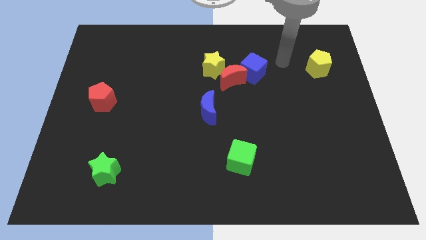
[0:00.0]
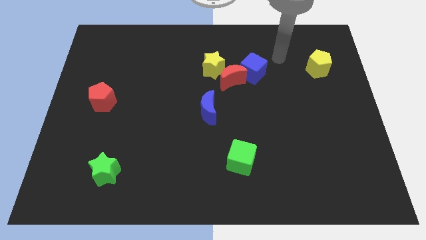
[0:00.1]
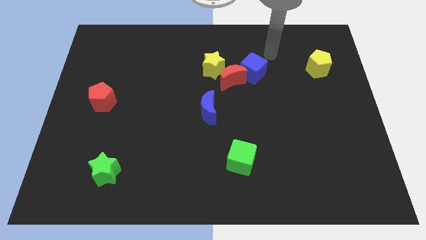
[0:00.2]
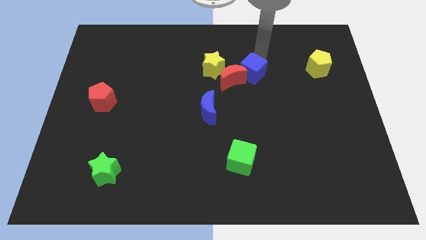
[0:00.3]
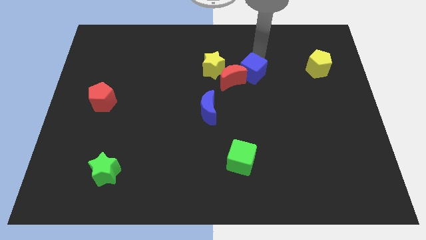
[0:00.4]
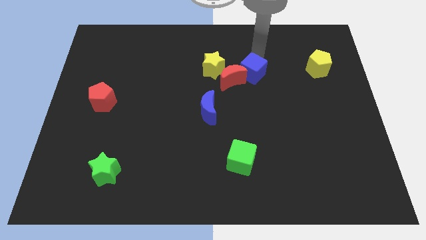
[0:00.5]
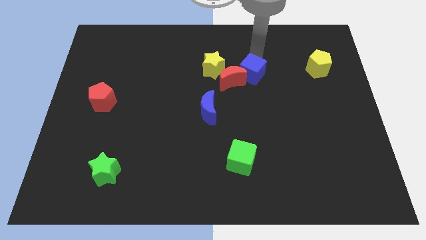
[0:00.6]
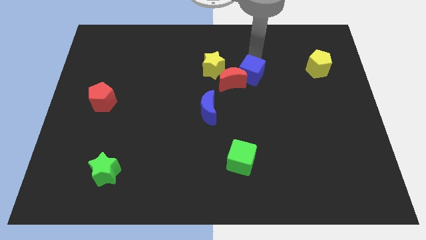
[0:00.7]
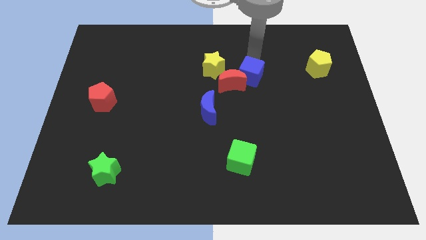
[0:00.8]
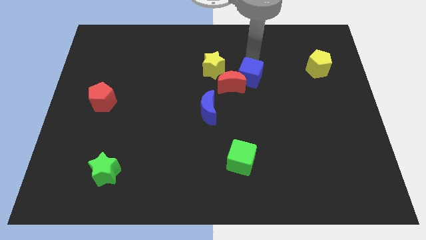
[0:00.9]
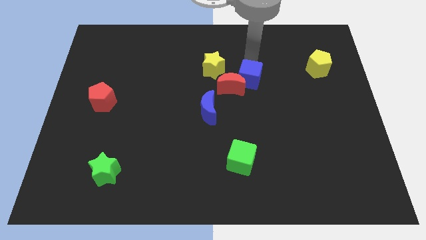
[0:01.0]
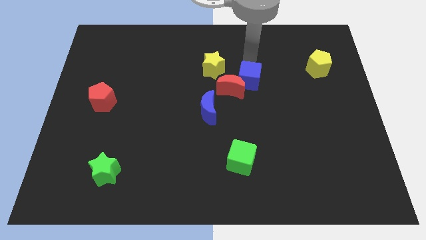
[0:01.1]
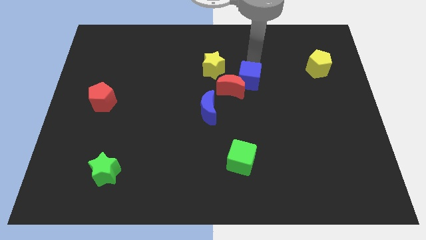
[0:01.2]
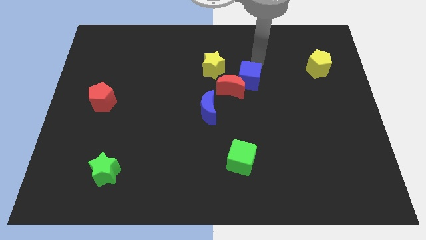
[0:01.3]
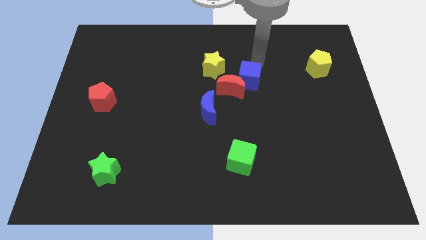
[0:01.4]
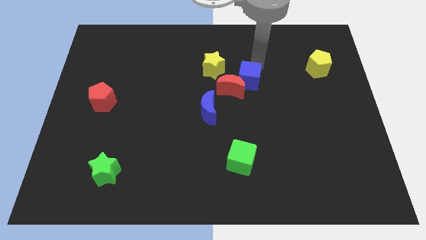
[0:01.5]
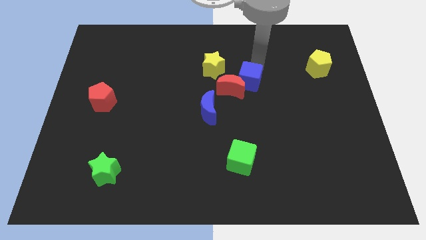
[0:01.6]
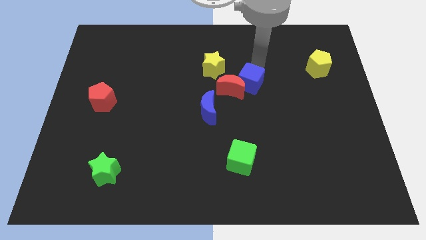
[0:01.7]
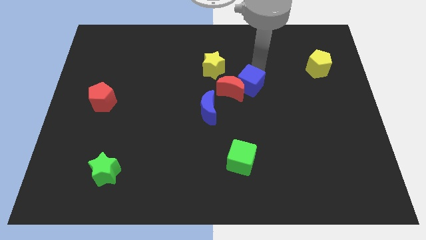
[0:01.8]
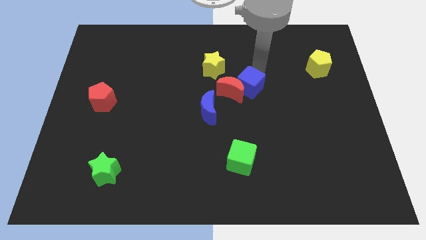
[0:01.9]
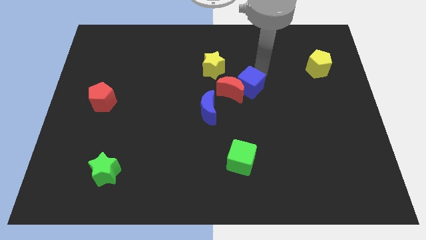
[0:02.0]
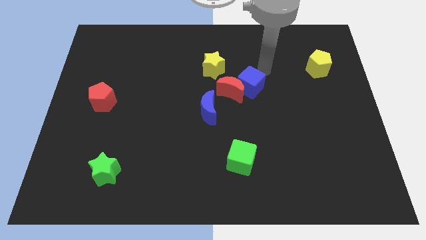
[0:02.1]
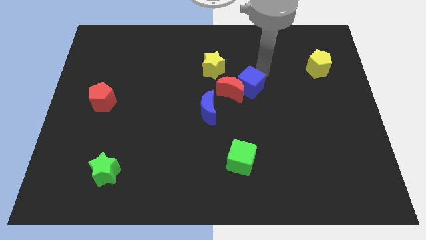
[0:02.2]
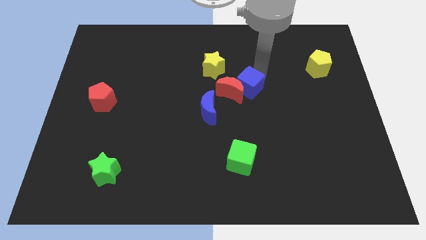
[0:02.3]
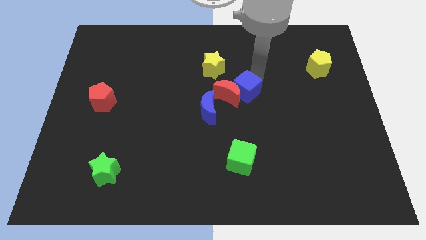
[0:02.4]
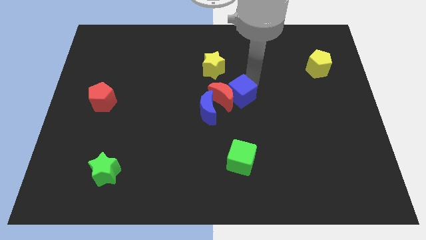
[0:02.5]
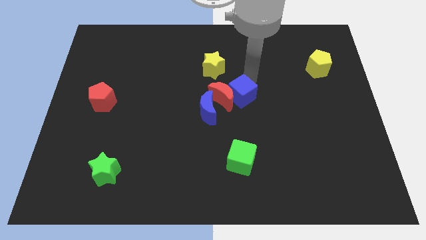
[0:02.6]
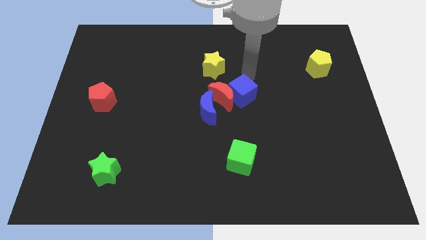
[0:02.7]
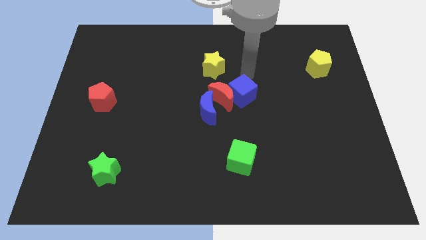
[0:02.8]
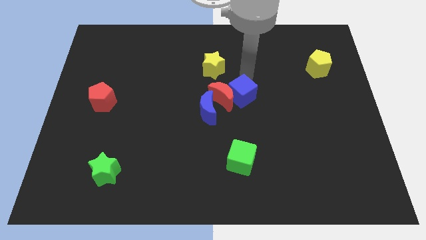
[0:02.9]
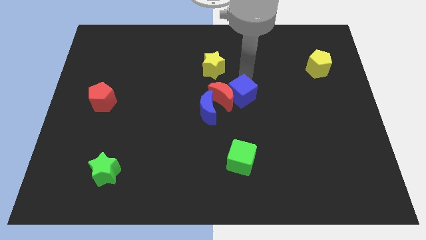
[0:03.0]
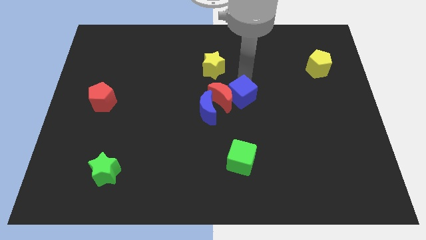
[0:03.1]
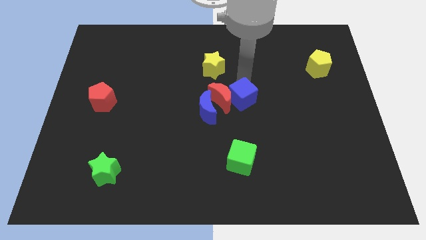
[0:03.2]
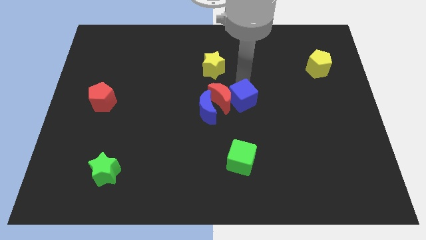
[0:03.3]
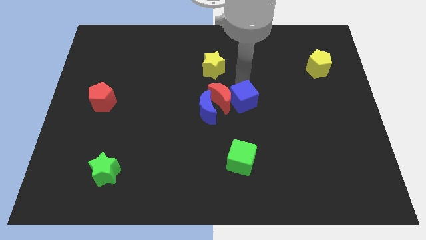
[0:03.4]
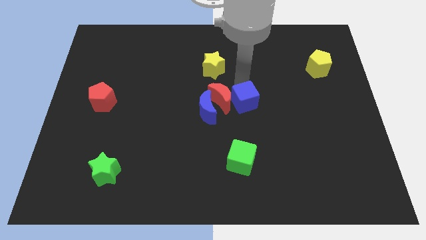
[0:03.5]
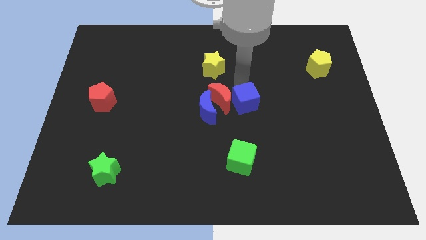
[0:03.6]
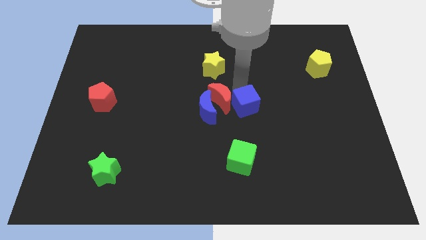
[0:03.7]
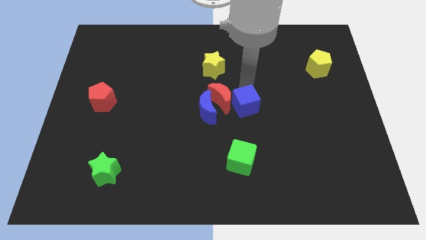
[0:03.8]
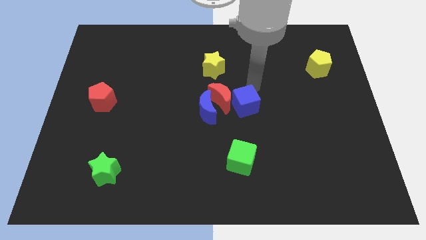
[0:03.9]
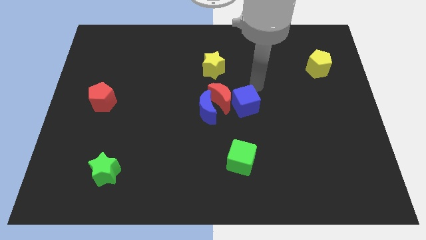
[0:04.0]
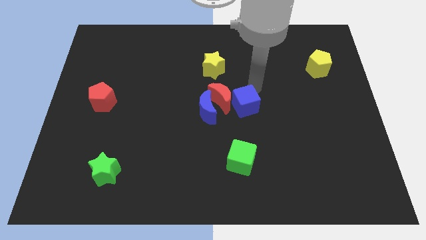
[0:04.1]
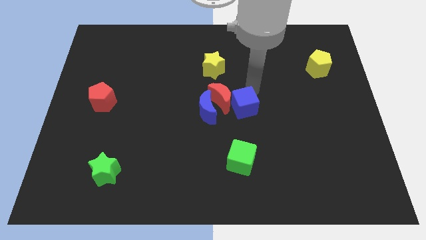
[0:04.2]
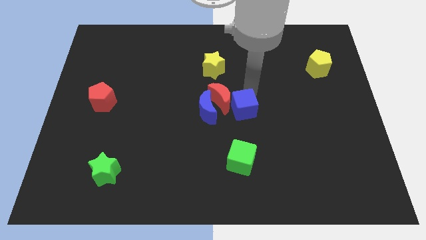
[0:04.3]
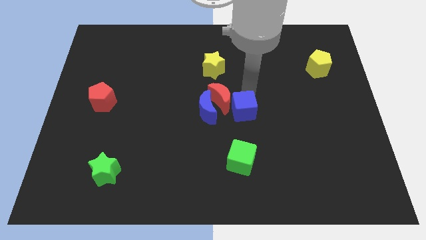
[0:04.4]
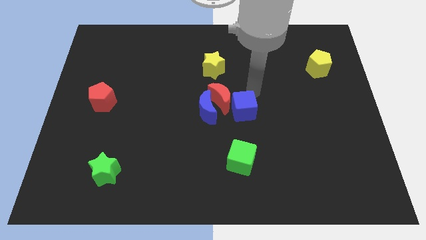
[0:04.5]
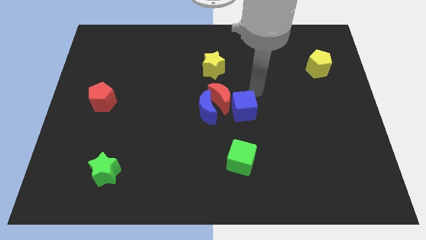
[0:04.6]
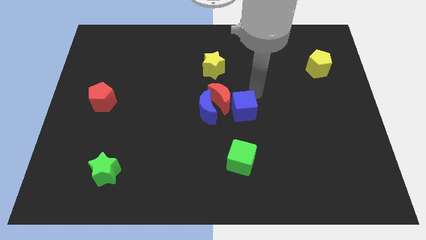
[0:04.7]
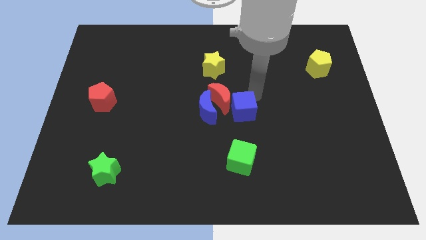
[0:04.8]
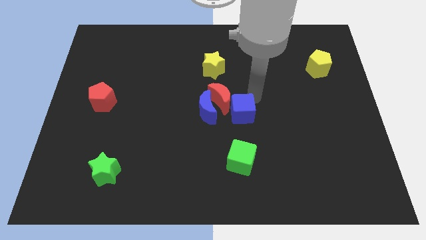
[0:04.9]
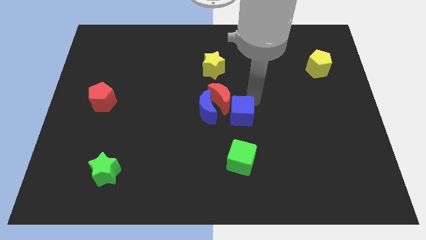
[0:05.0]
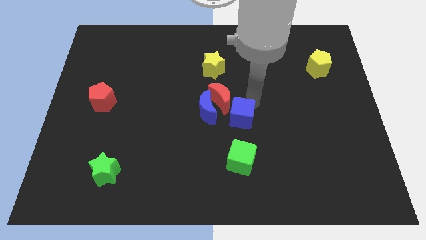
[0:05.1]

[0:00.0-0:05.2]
put the blue cube to the bottom right of the blue moon

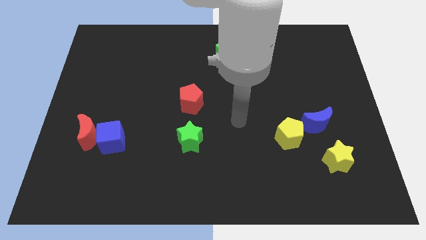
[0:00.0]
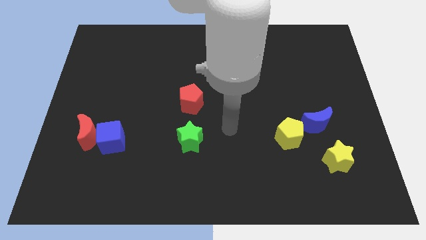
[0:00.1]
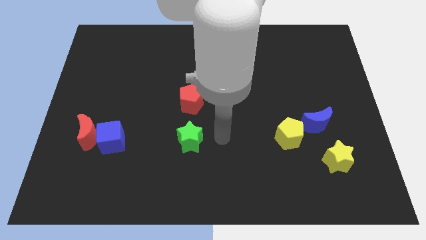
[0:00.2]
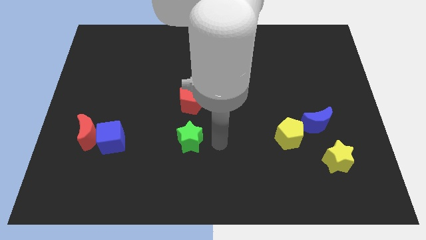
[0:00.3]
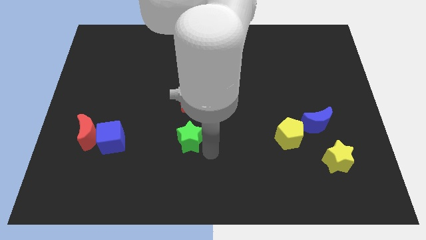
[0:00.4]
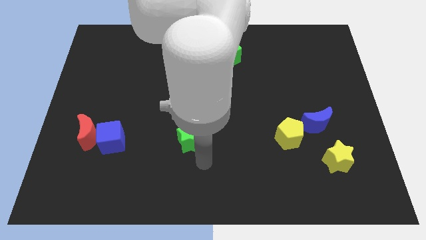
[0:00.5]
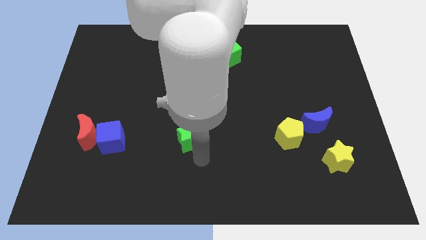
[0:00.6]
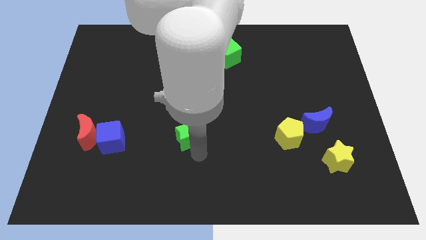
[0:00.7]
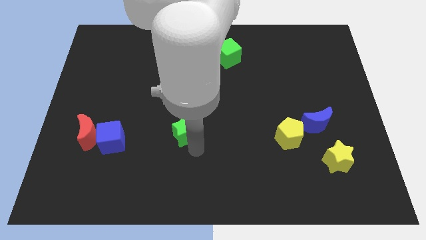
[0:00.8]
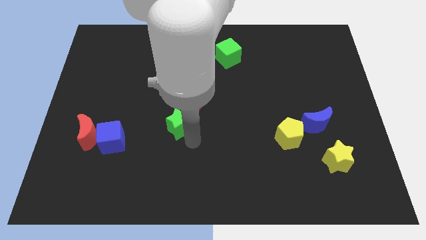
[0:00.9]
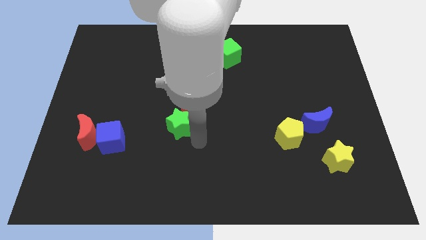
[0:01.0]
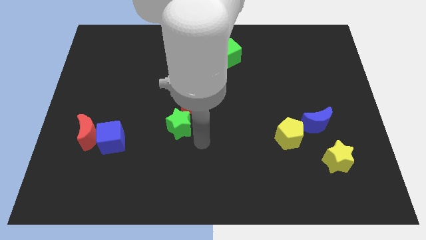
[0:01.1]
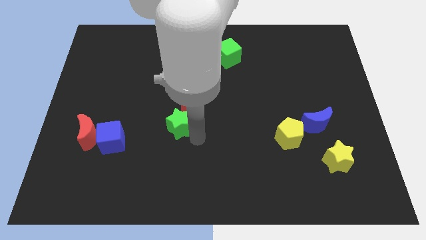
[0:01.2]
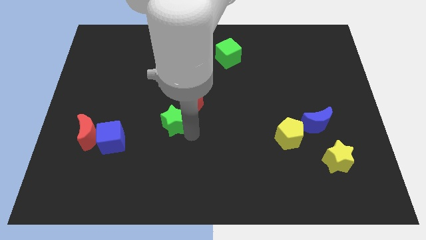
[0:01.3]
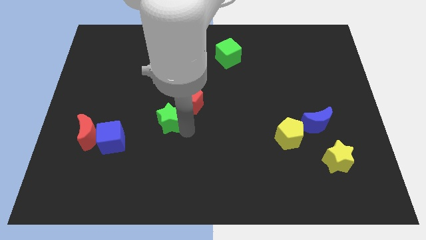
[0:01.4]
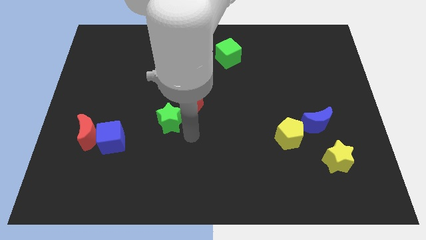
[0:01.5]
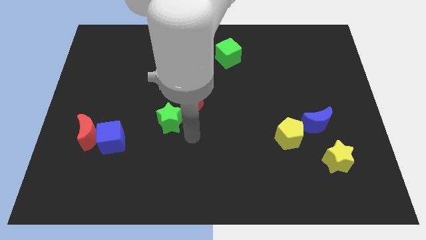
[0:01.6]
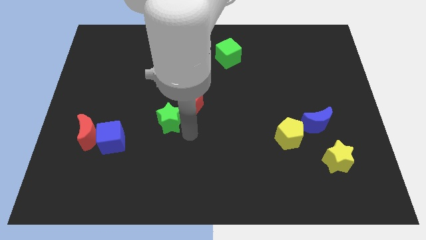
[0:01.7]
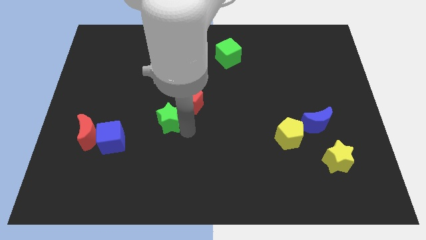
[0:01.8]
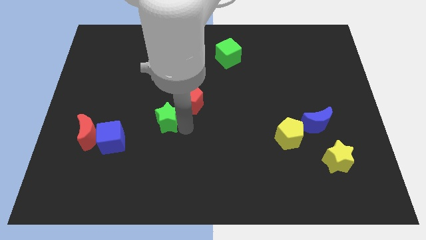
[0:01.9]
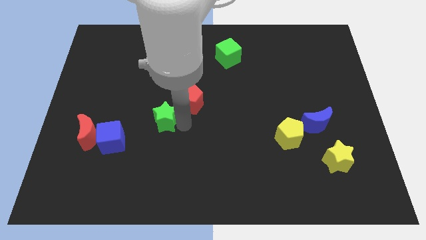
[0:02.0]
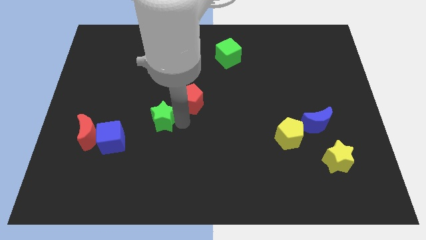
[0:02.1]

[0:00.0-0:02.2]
put the green star just left of the red pentagon
